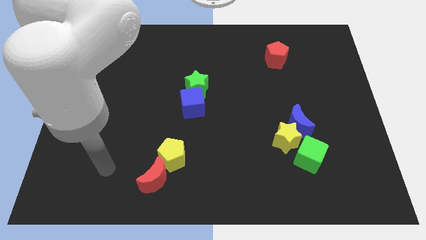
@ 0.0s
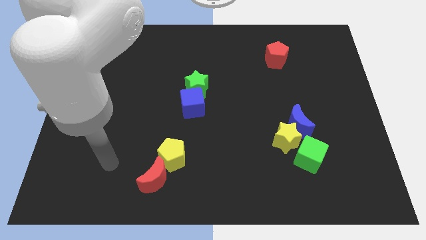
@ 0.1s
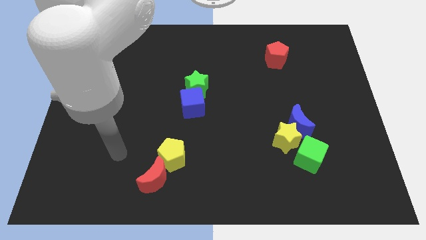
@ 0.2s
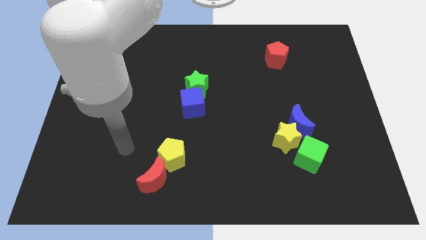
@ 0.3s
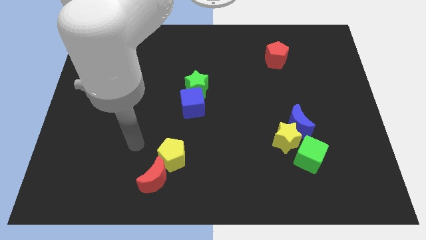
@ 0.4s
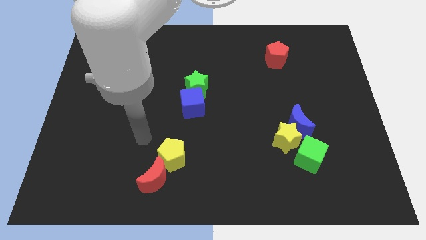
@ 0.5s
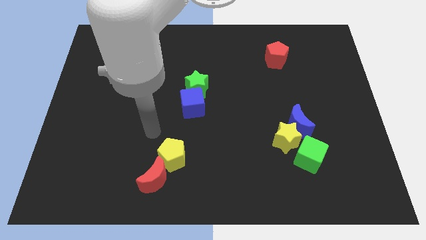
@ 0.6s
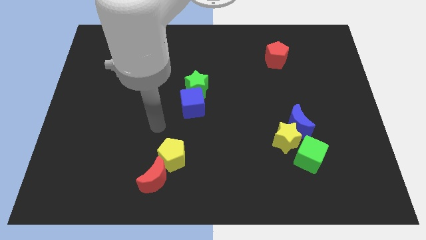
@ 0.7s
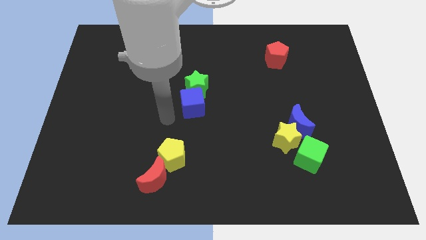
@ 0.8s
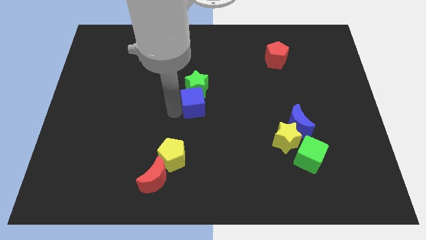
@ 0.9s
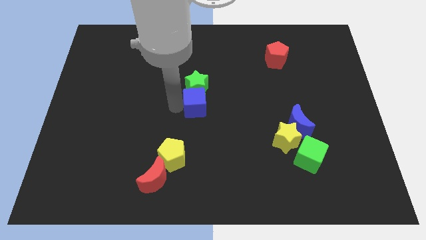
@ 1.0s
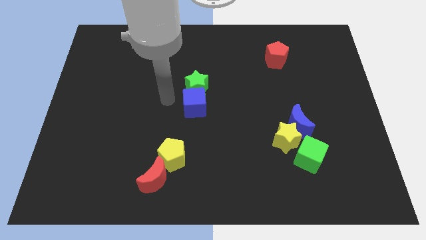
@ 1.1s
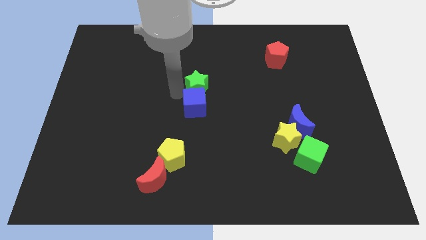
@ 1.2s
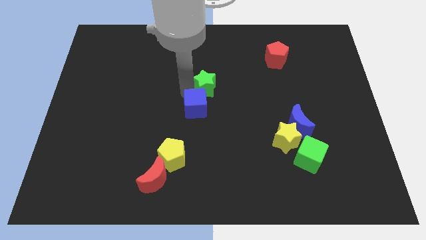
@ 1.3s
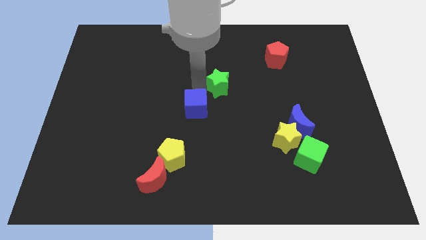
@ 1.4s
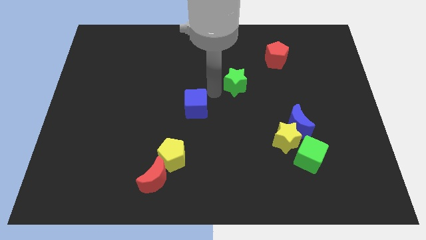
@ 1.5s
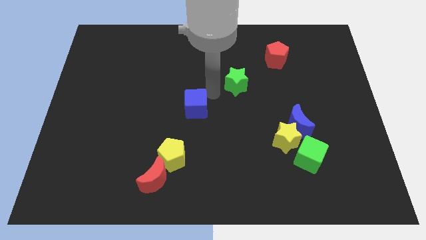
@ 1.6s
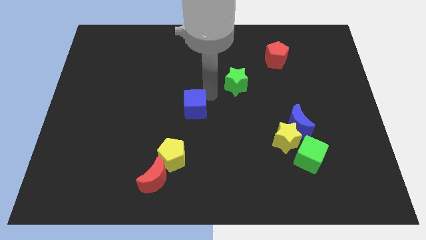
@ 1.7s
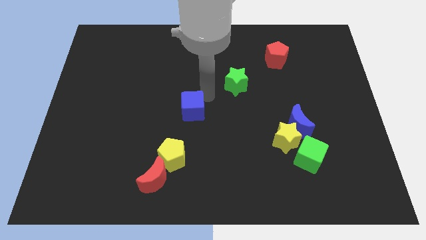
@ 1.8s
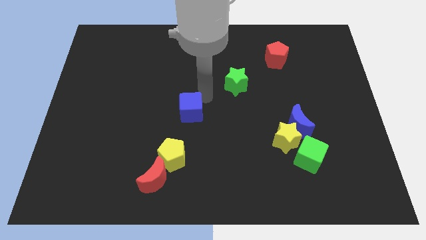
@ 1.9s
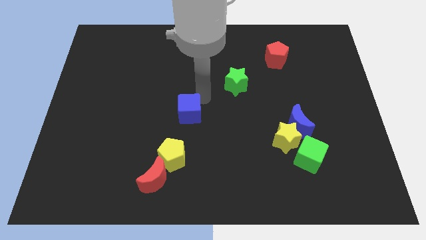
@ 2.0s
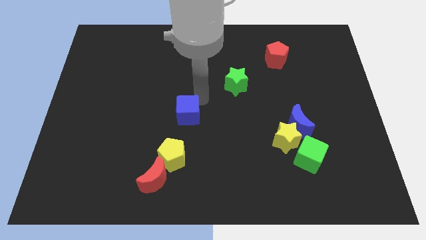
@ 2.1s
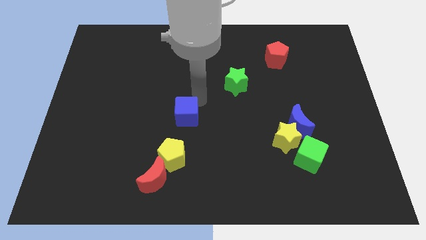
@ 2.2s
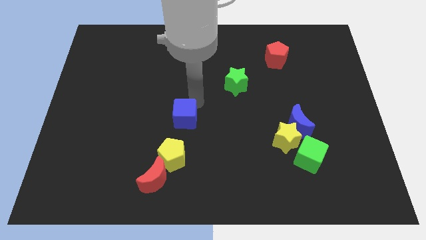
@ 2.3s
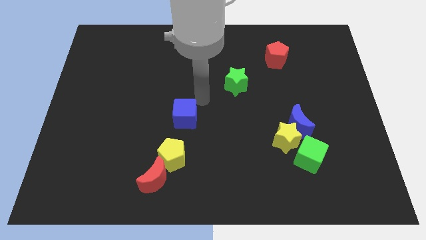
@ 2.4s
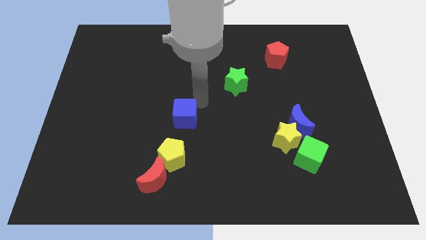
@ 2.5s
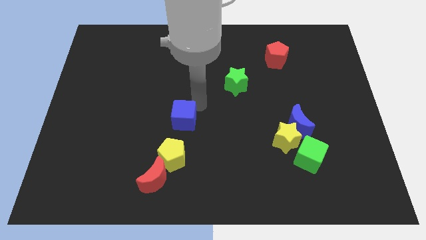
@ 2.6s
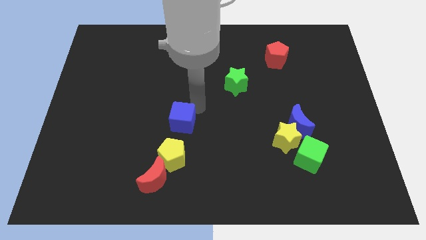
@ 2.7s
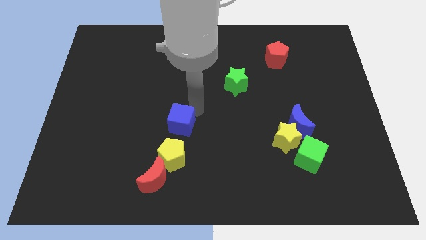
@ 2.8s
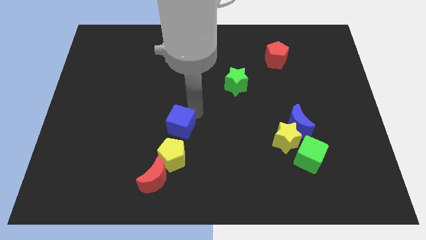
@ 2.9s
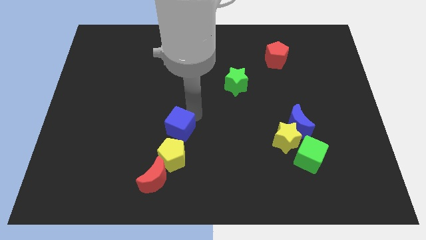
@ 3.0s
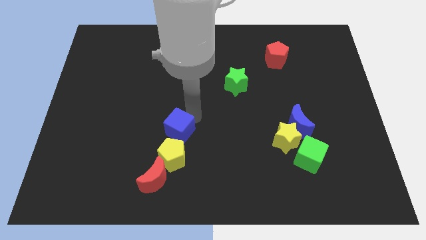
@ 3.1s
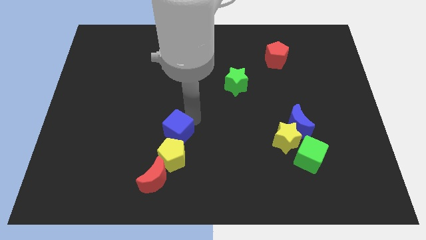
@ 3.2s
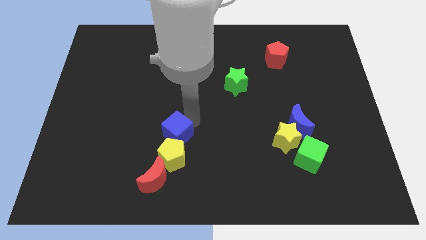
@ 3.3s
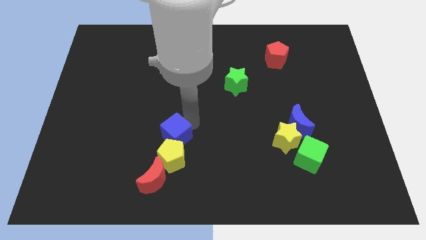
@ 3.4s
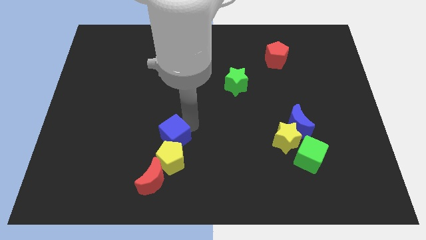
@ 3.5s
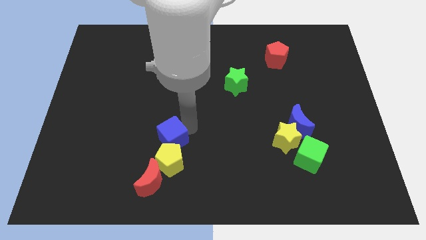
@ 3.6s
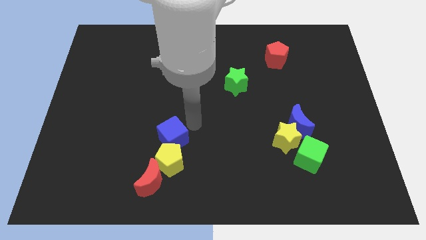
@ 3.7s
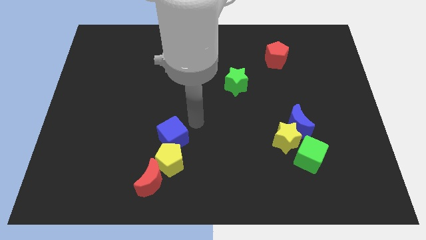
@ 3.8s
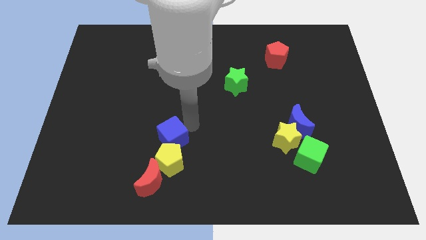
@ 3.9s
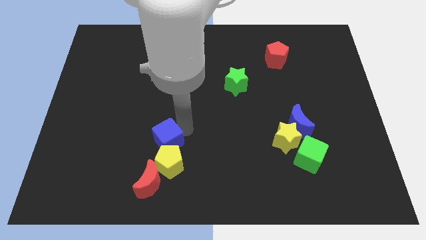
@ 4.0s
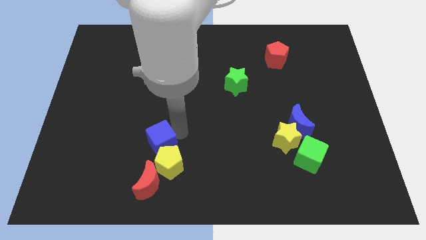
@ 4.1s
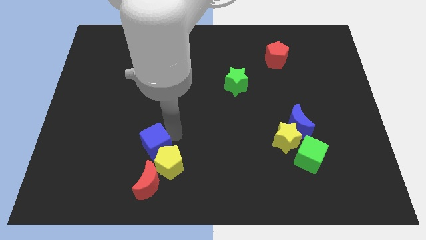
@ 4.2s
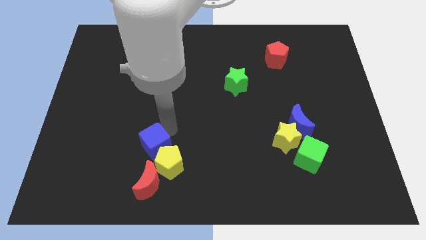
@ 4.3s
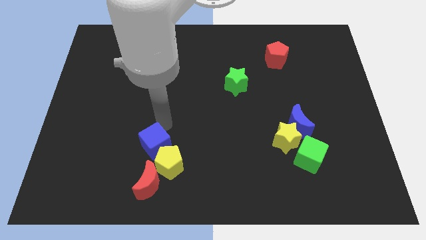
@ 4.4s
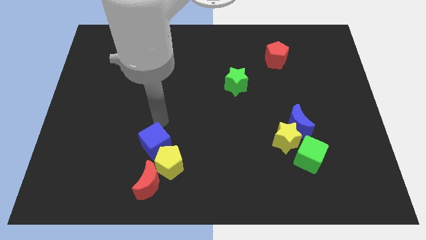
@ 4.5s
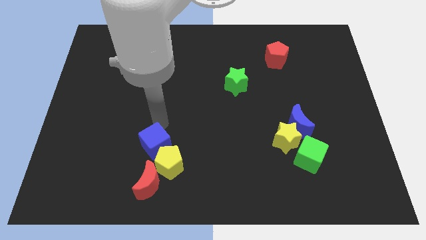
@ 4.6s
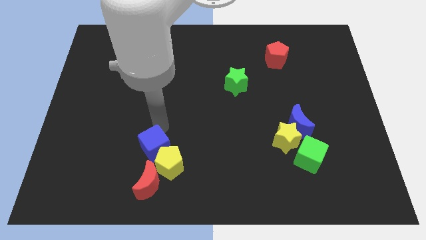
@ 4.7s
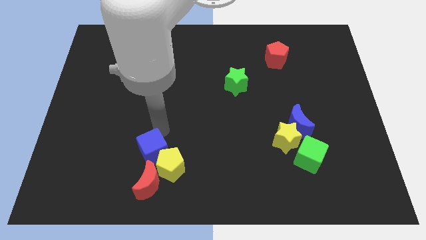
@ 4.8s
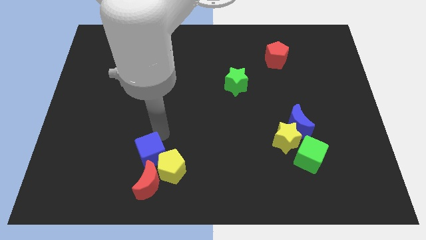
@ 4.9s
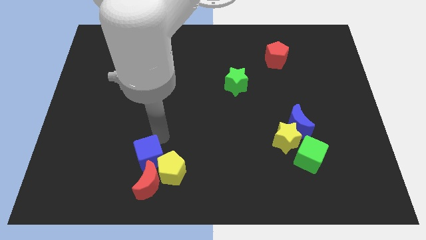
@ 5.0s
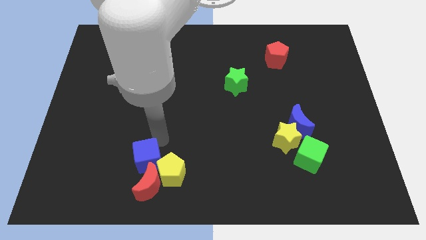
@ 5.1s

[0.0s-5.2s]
push the blue cube to the red moon

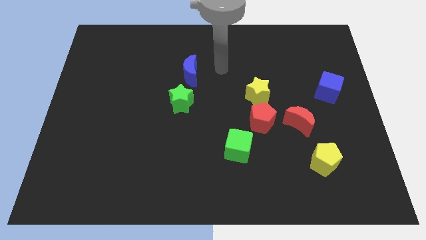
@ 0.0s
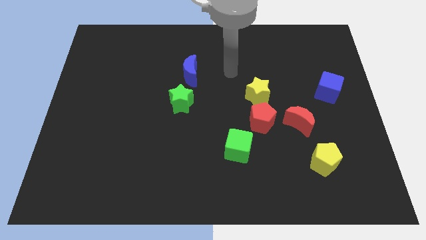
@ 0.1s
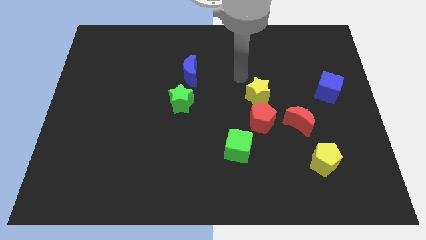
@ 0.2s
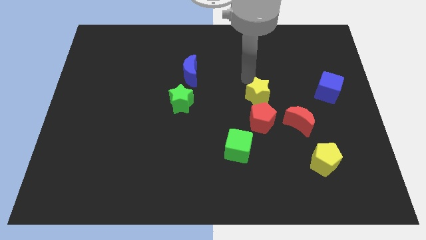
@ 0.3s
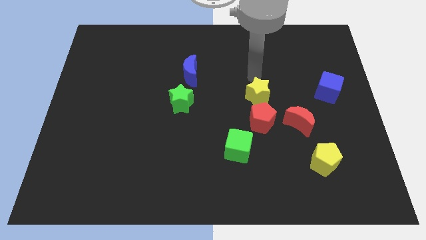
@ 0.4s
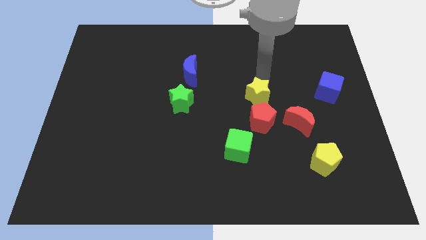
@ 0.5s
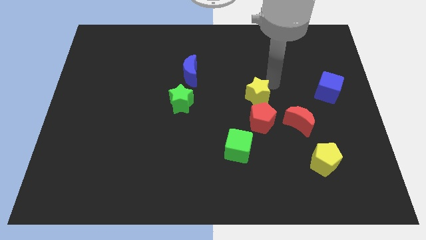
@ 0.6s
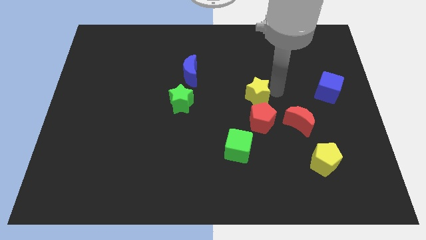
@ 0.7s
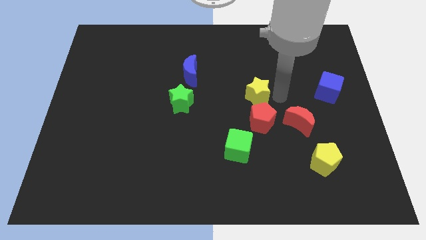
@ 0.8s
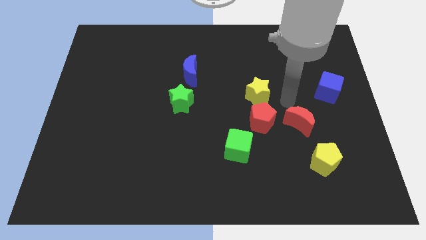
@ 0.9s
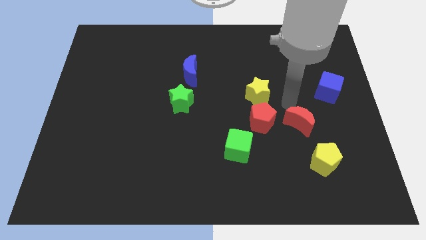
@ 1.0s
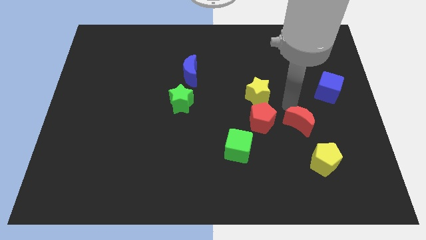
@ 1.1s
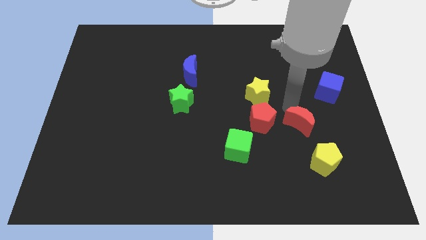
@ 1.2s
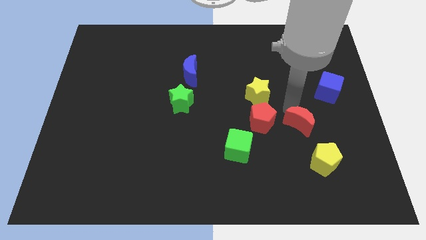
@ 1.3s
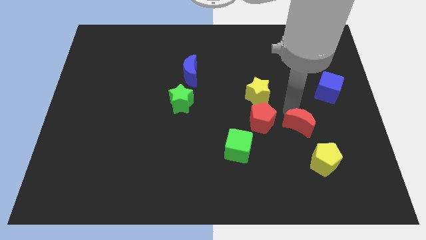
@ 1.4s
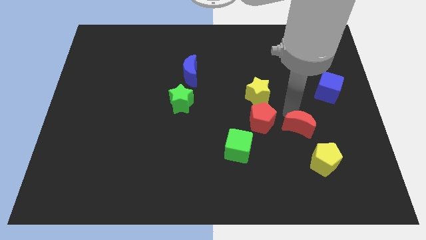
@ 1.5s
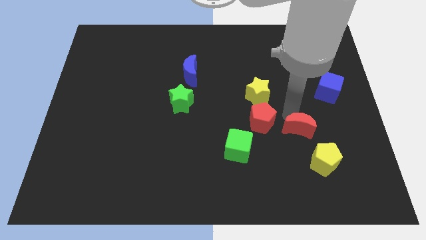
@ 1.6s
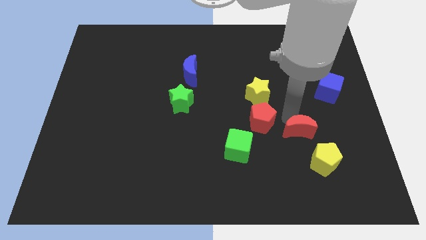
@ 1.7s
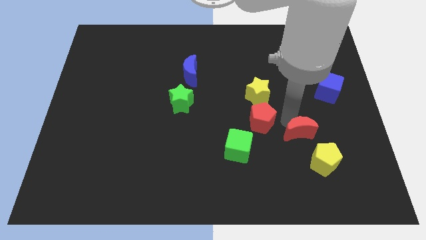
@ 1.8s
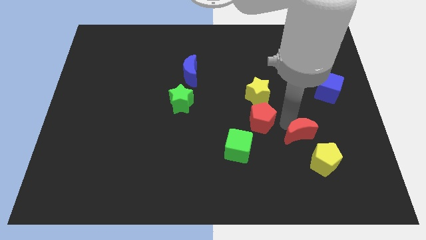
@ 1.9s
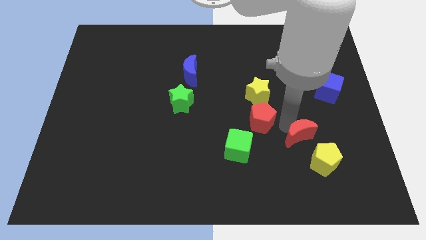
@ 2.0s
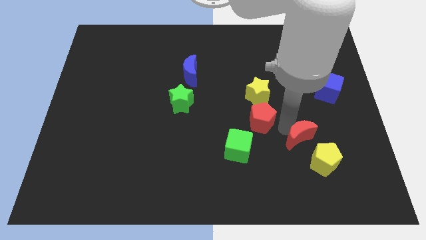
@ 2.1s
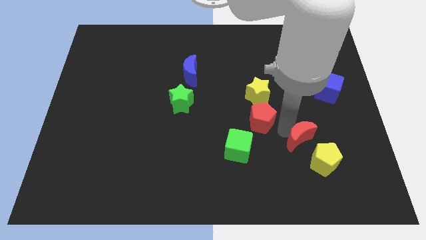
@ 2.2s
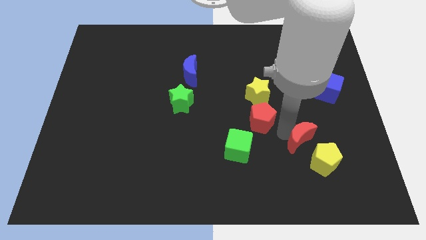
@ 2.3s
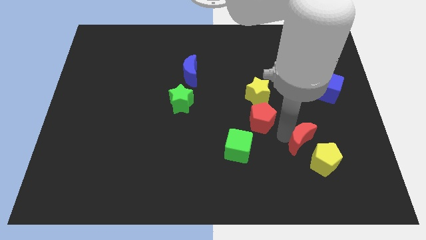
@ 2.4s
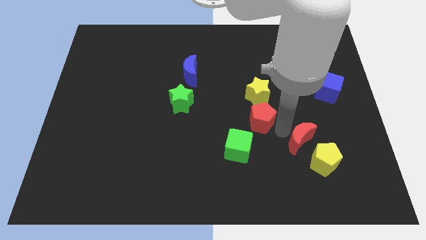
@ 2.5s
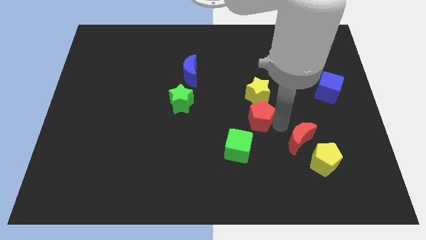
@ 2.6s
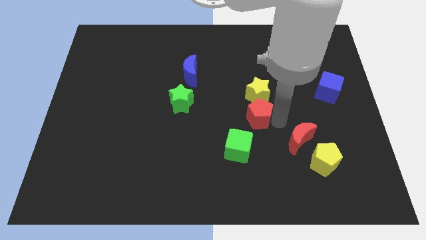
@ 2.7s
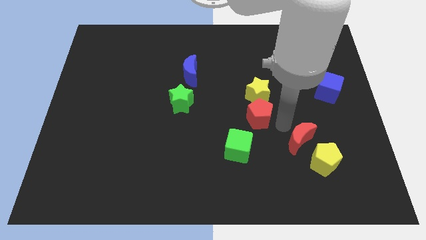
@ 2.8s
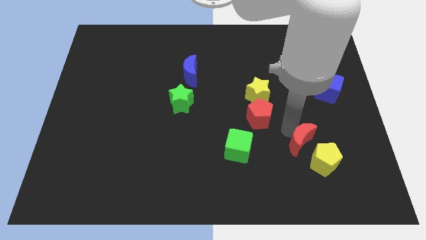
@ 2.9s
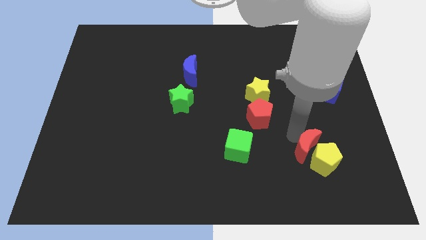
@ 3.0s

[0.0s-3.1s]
put the red moon next to the yellow pentagon
